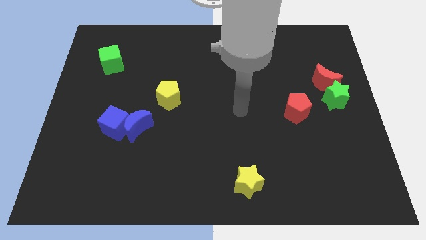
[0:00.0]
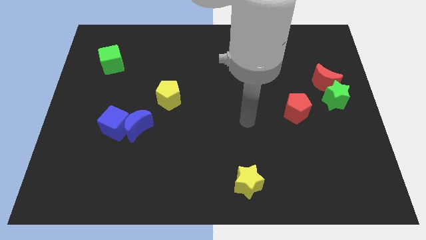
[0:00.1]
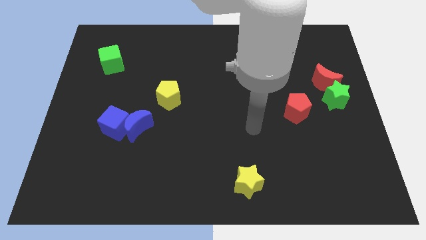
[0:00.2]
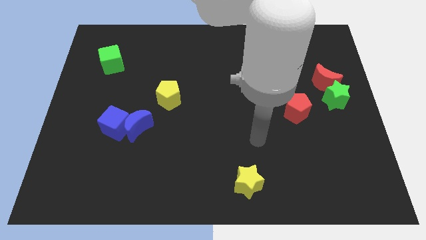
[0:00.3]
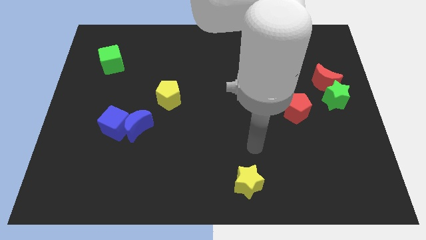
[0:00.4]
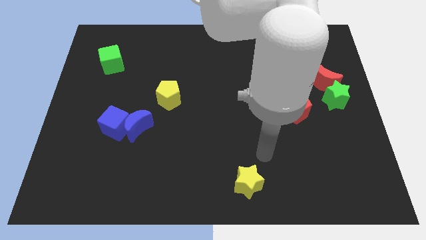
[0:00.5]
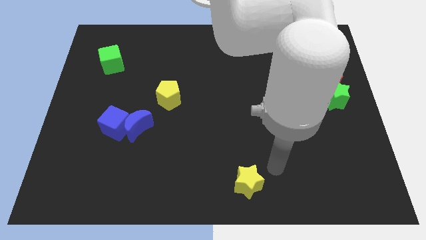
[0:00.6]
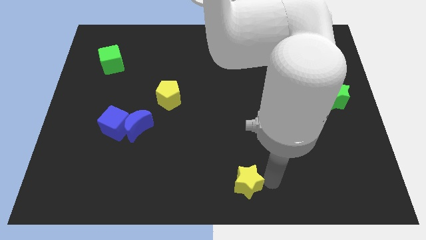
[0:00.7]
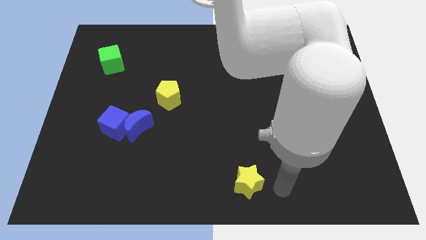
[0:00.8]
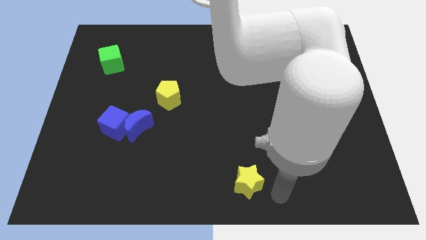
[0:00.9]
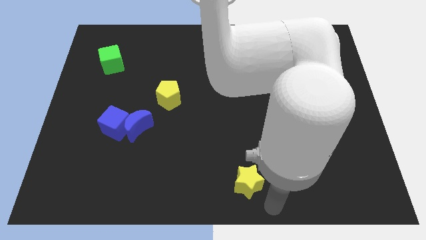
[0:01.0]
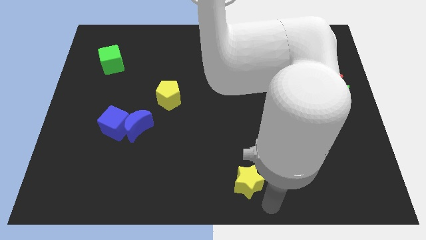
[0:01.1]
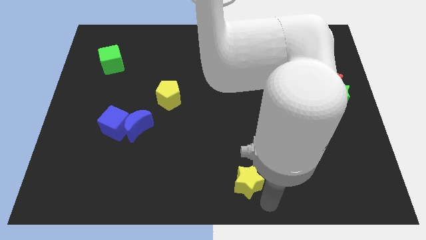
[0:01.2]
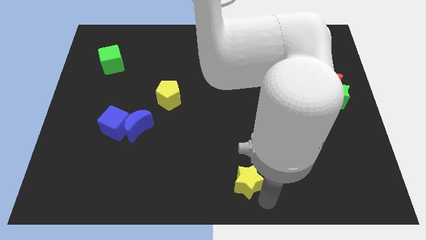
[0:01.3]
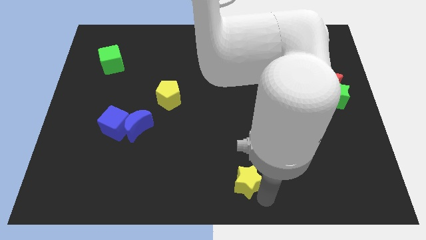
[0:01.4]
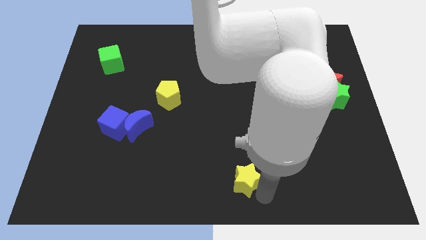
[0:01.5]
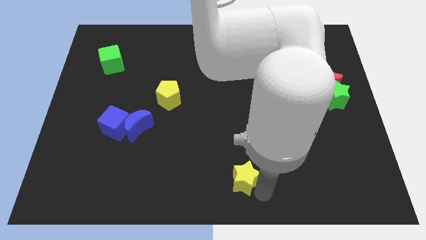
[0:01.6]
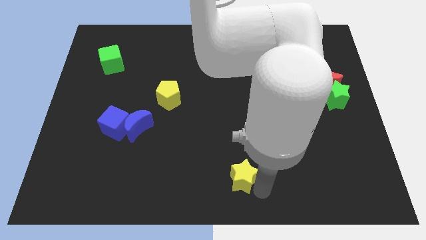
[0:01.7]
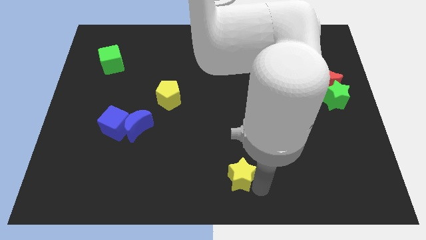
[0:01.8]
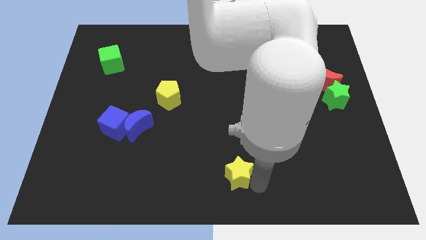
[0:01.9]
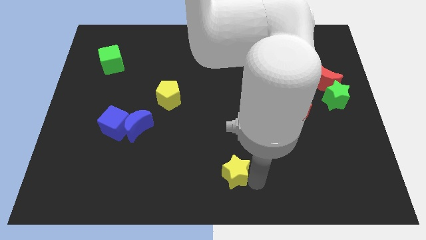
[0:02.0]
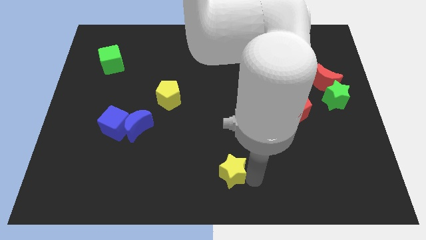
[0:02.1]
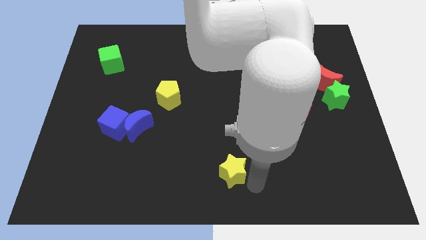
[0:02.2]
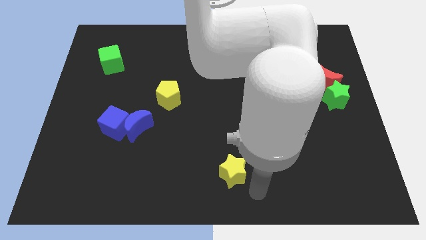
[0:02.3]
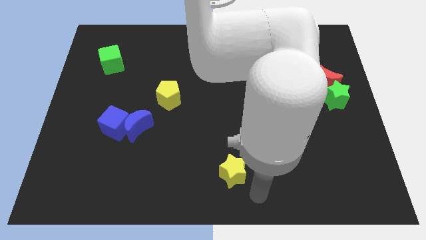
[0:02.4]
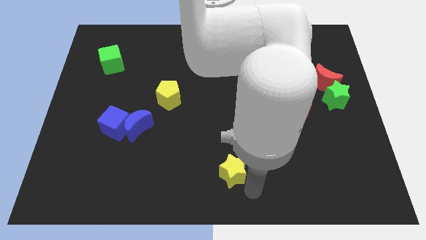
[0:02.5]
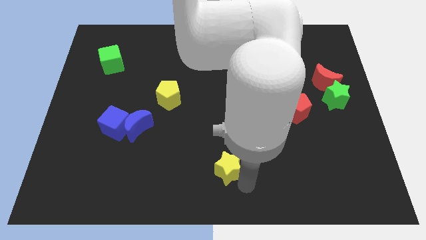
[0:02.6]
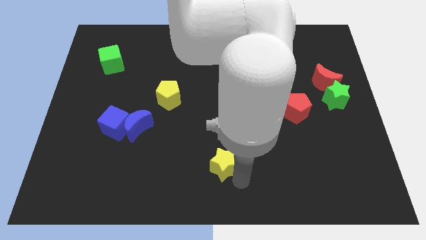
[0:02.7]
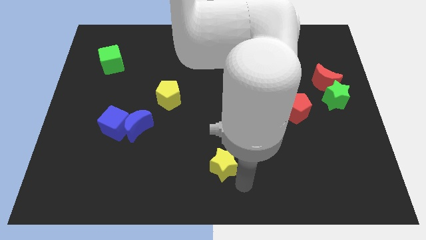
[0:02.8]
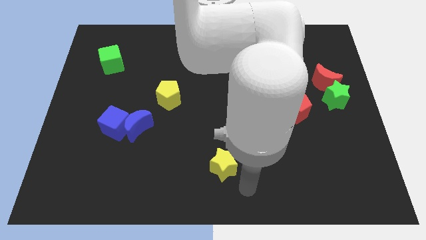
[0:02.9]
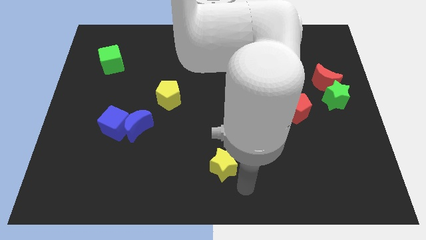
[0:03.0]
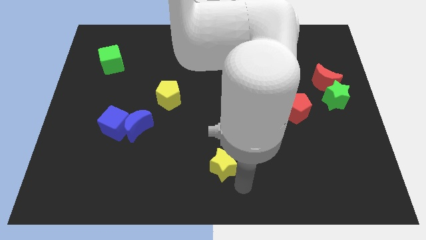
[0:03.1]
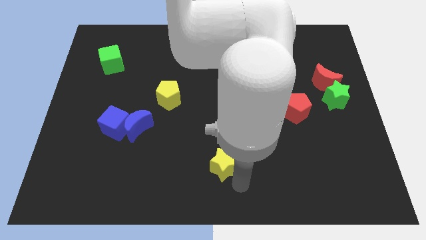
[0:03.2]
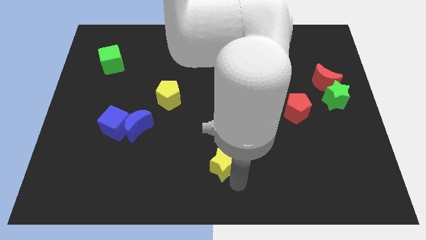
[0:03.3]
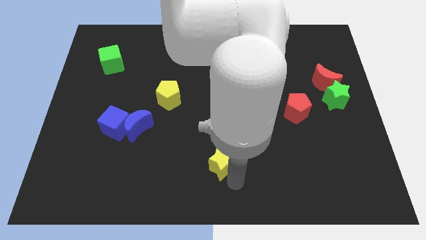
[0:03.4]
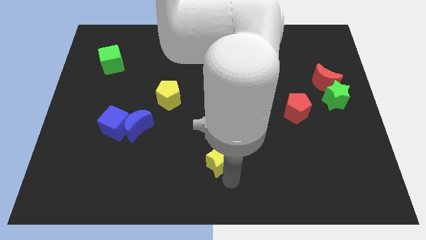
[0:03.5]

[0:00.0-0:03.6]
push the yellow star upwards and left slightly

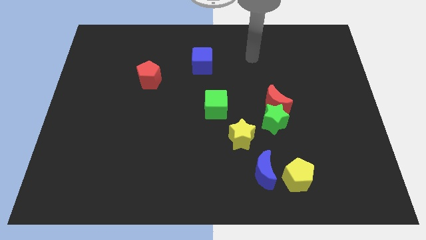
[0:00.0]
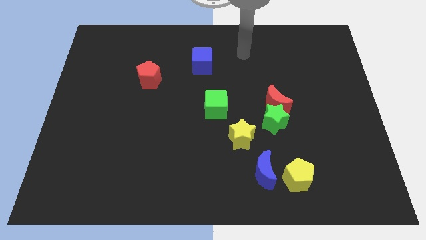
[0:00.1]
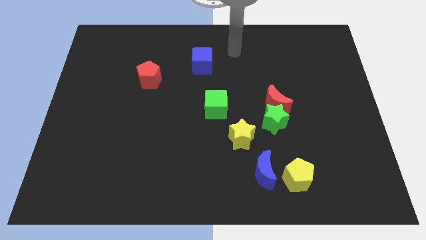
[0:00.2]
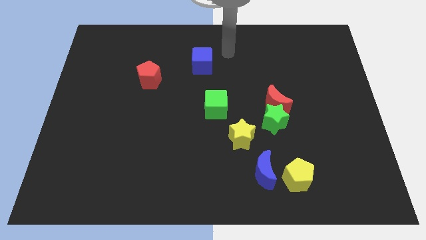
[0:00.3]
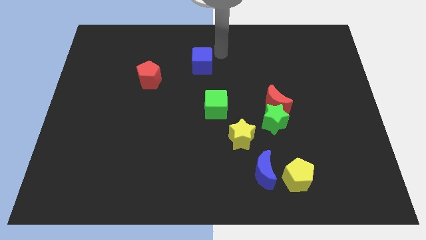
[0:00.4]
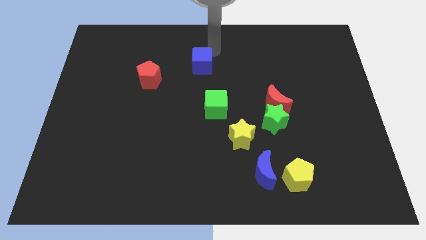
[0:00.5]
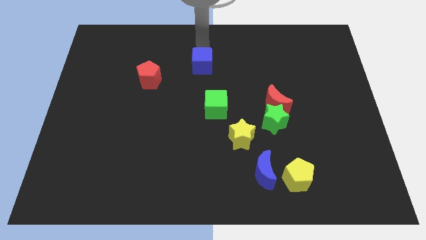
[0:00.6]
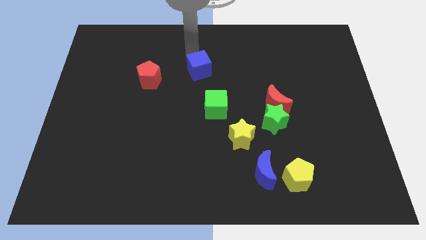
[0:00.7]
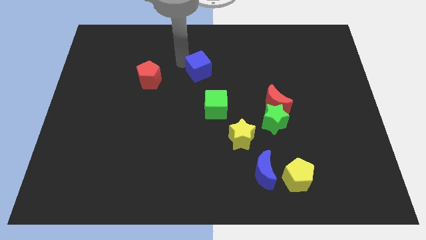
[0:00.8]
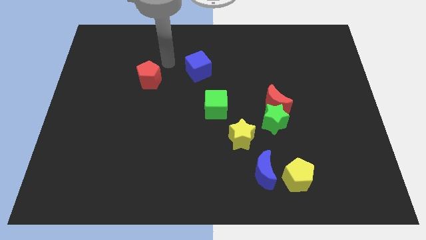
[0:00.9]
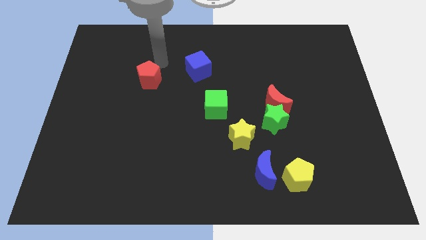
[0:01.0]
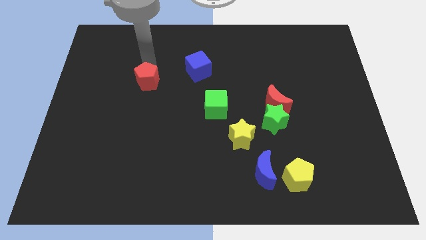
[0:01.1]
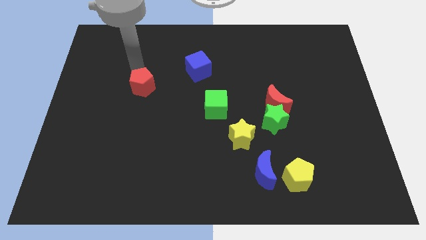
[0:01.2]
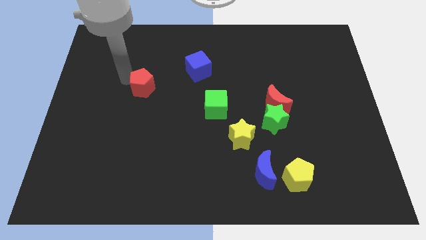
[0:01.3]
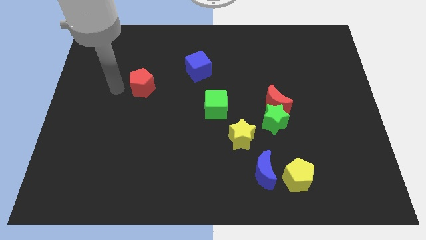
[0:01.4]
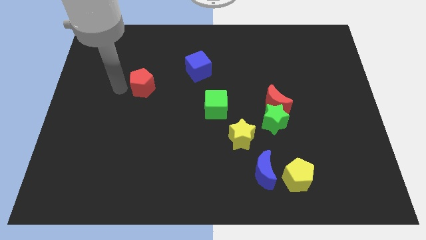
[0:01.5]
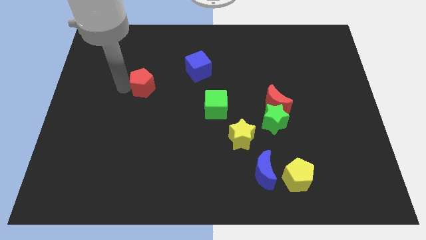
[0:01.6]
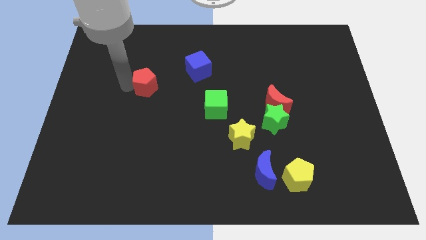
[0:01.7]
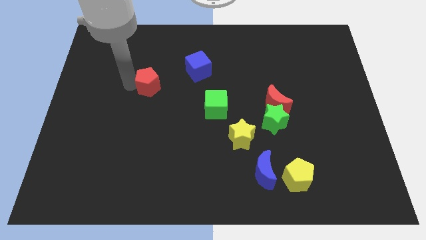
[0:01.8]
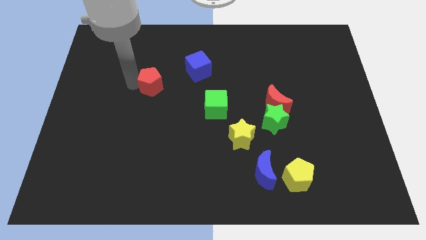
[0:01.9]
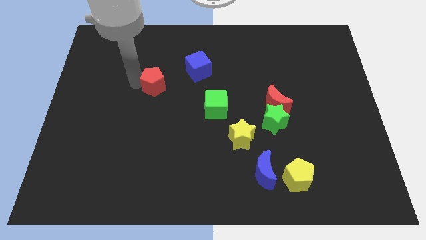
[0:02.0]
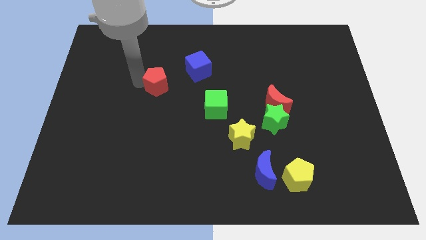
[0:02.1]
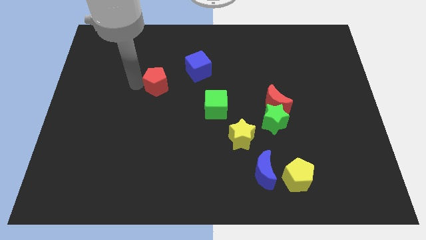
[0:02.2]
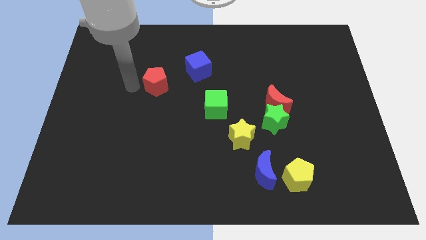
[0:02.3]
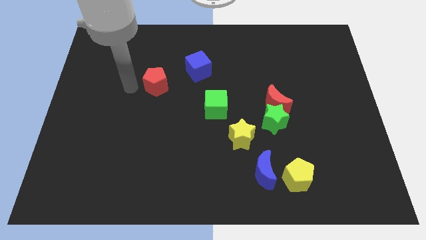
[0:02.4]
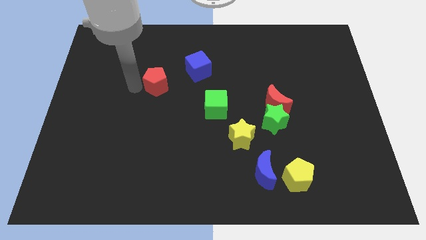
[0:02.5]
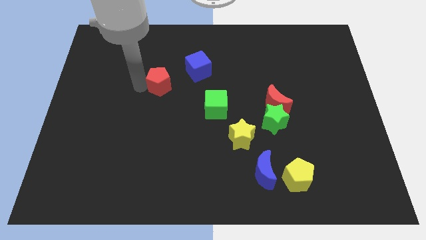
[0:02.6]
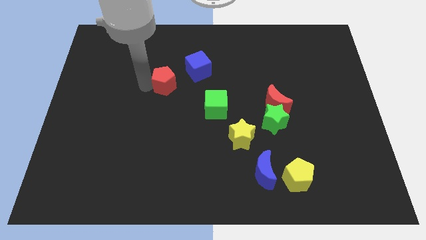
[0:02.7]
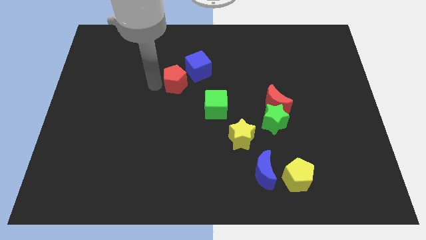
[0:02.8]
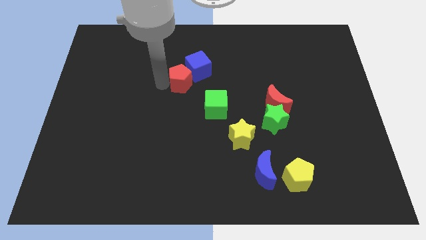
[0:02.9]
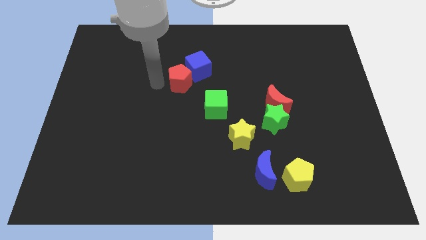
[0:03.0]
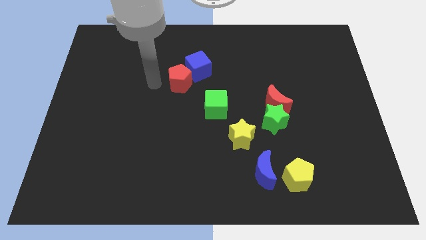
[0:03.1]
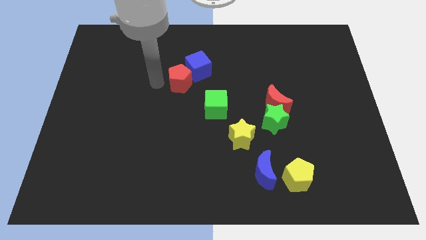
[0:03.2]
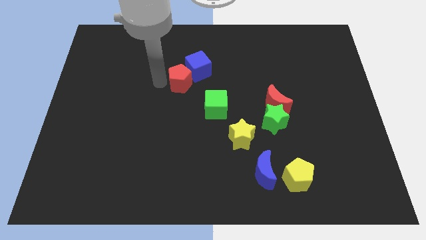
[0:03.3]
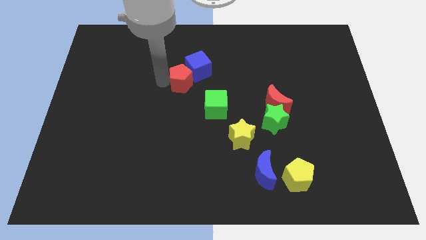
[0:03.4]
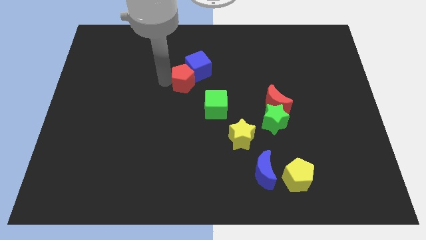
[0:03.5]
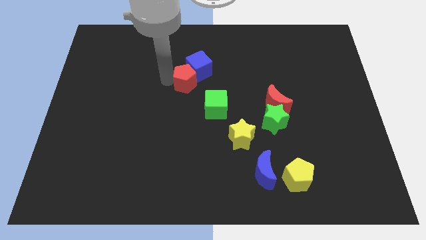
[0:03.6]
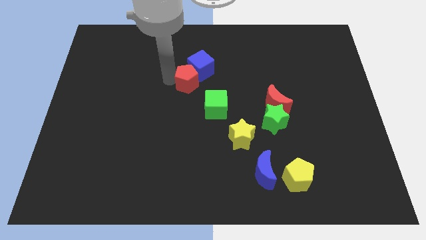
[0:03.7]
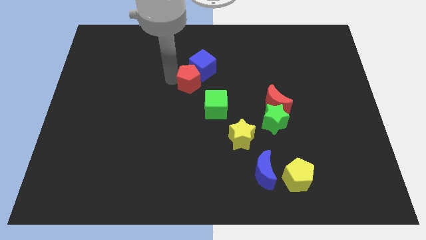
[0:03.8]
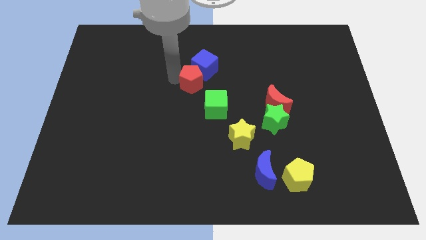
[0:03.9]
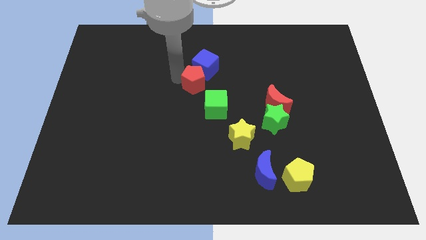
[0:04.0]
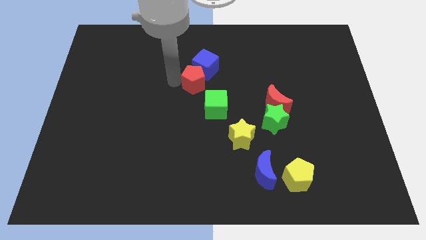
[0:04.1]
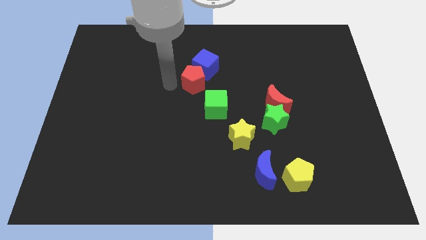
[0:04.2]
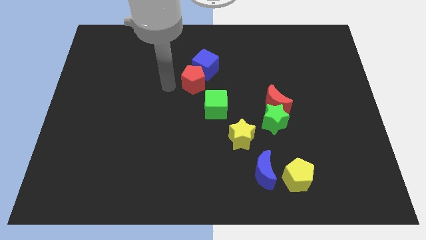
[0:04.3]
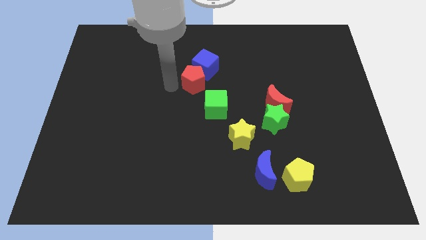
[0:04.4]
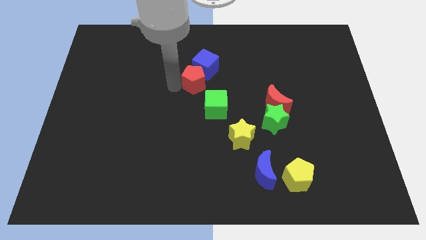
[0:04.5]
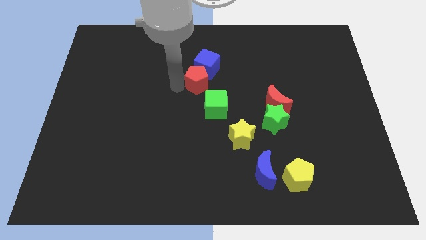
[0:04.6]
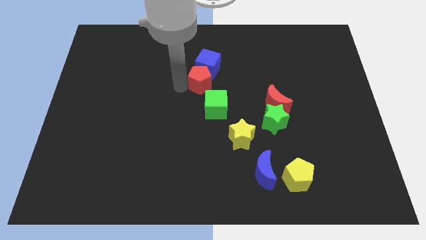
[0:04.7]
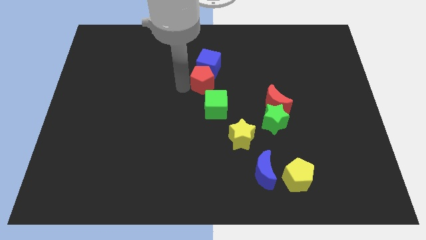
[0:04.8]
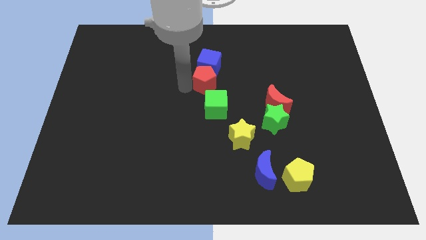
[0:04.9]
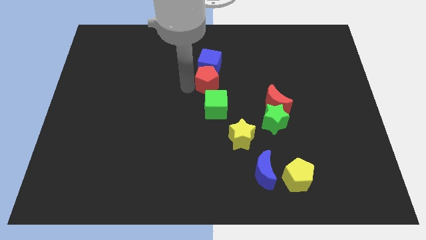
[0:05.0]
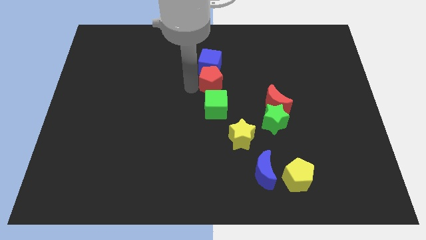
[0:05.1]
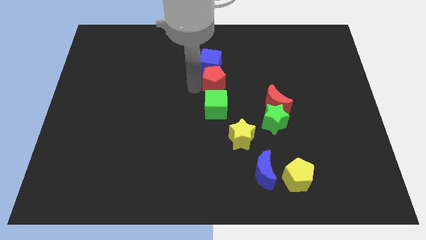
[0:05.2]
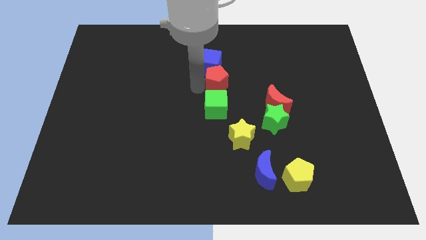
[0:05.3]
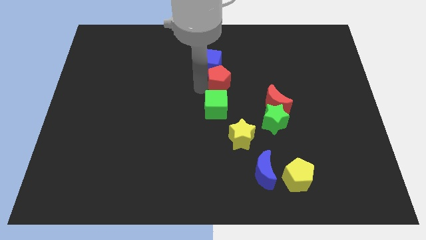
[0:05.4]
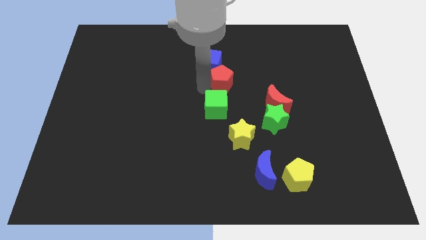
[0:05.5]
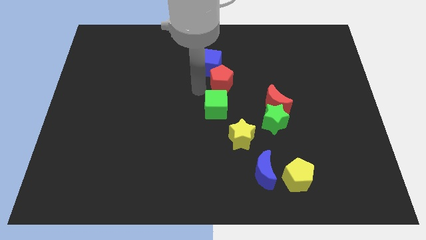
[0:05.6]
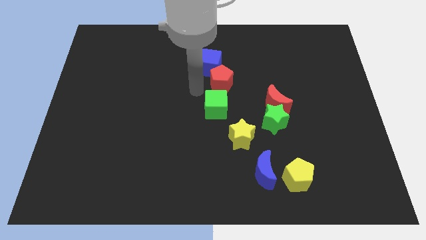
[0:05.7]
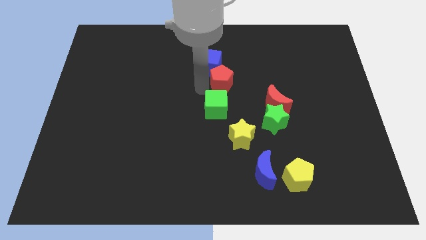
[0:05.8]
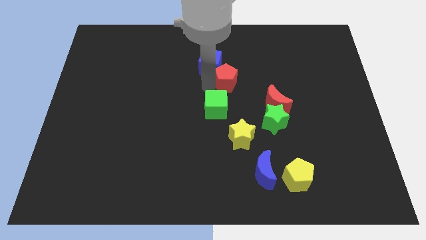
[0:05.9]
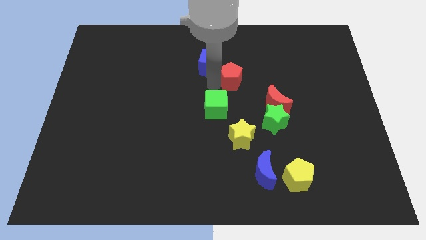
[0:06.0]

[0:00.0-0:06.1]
push the red pentagon to the right
